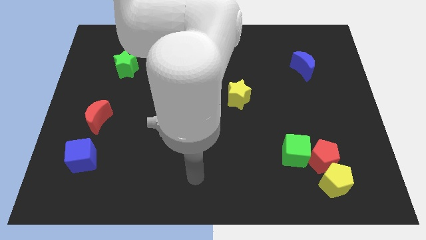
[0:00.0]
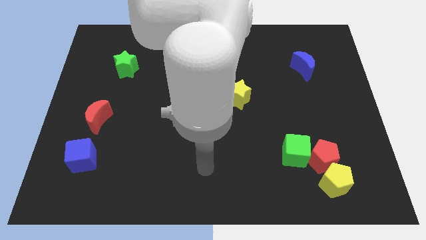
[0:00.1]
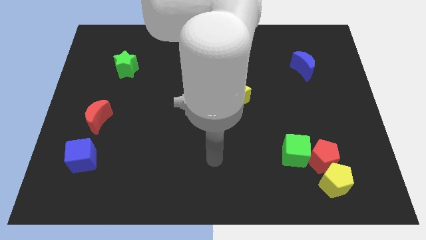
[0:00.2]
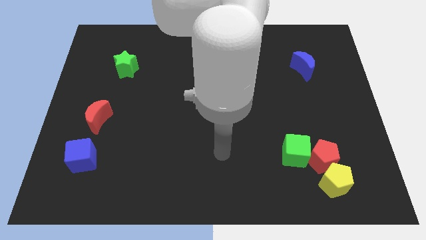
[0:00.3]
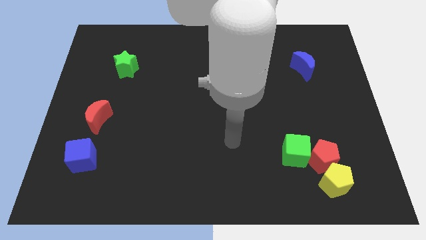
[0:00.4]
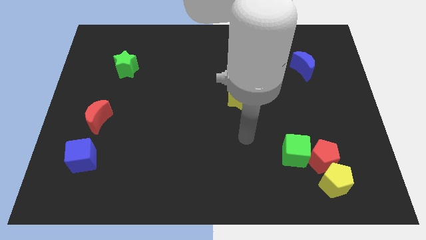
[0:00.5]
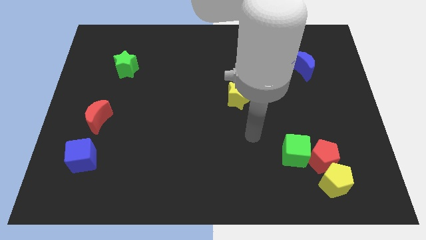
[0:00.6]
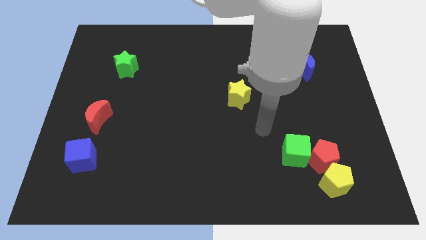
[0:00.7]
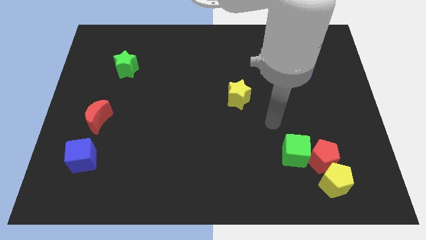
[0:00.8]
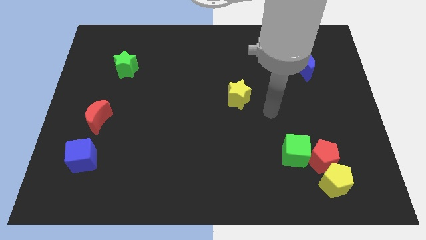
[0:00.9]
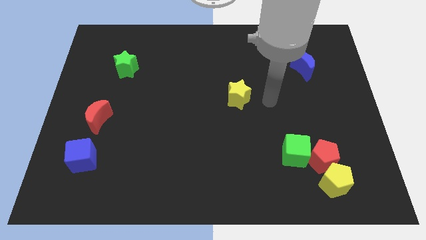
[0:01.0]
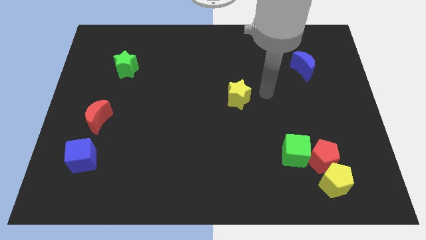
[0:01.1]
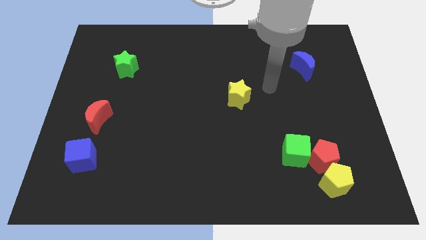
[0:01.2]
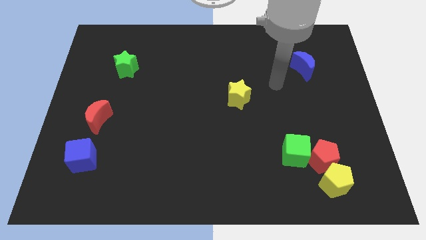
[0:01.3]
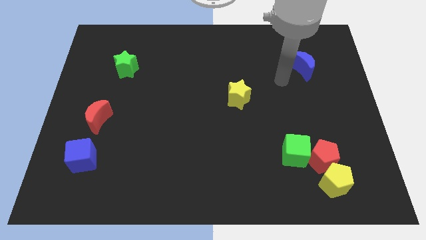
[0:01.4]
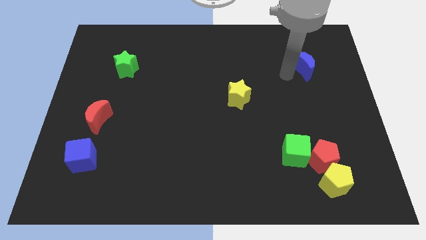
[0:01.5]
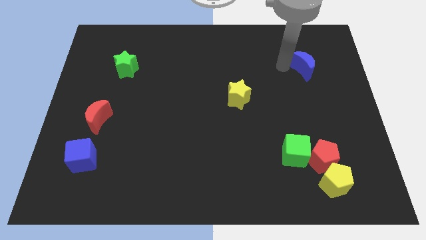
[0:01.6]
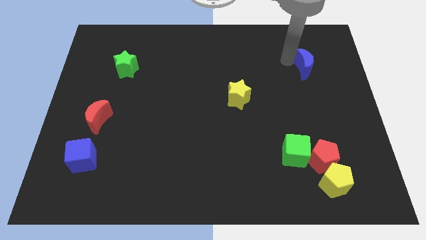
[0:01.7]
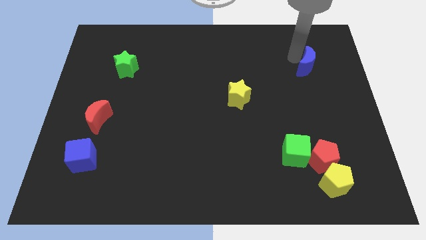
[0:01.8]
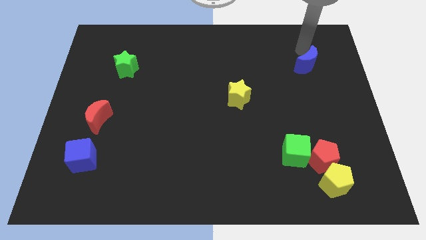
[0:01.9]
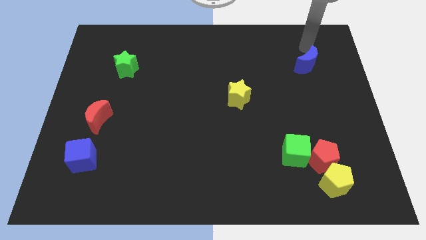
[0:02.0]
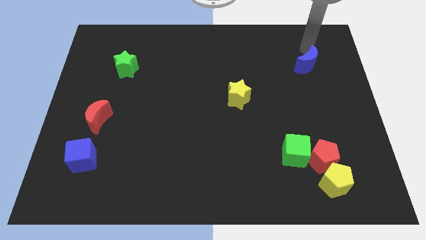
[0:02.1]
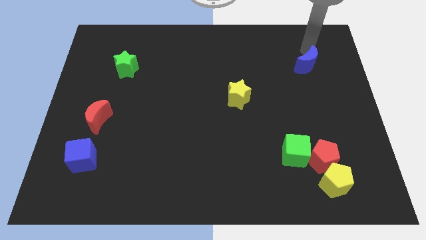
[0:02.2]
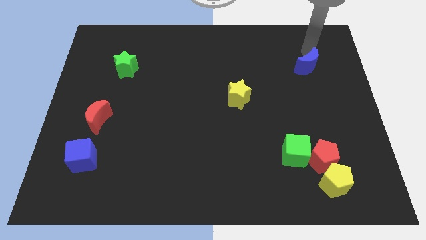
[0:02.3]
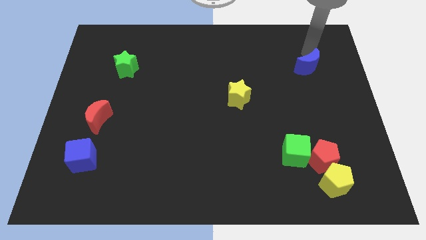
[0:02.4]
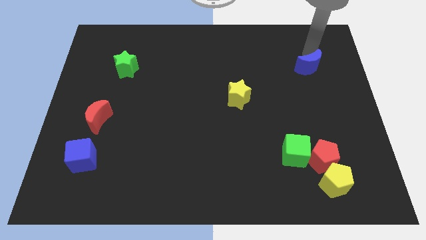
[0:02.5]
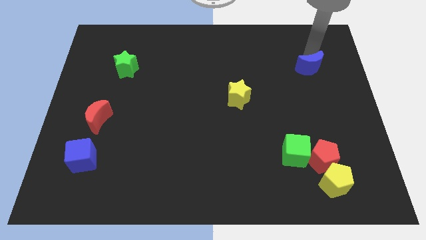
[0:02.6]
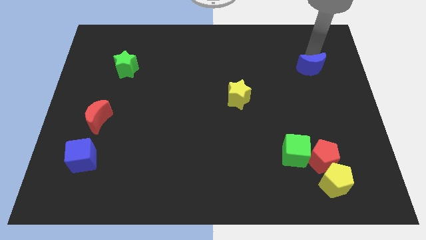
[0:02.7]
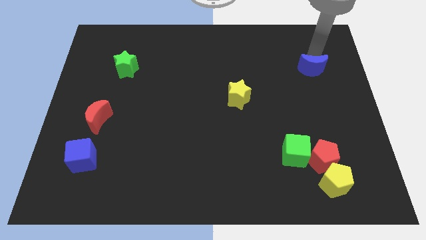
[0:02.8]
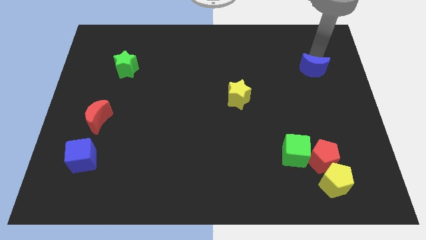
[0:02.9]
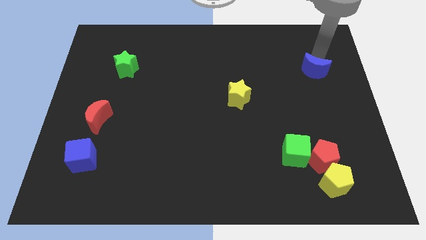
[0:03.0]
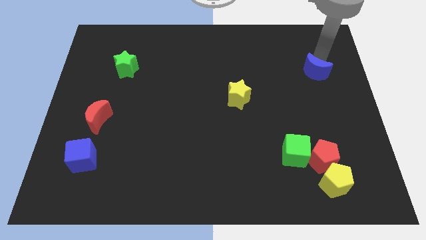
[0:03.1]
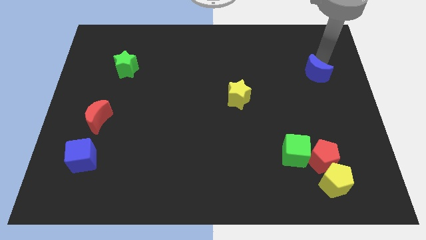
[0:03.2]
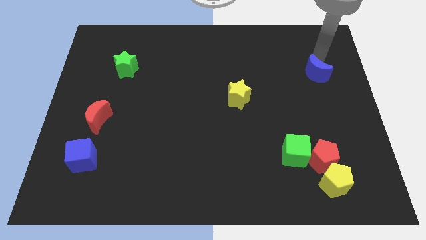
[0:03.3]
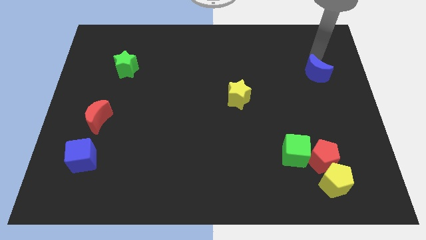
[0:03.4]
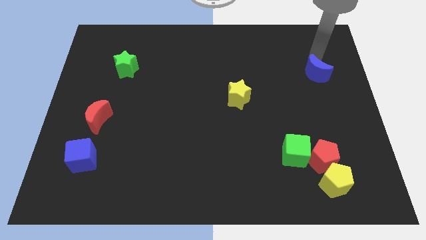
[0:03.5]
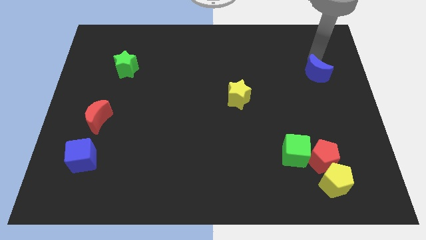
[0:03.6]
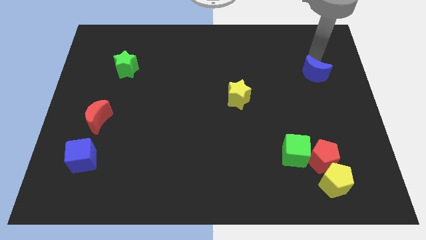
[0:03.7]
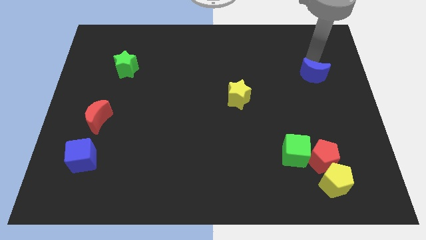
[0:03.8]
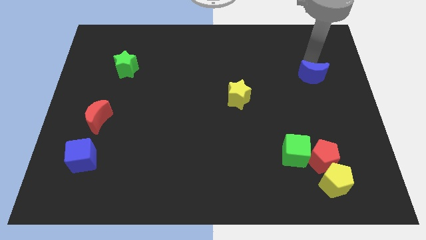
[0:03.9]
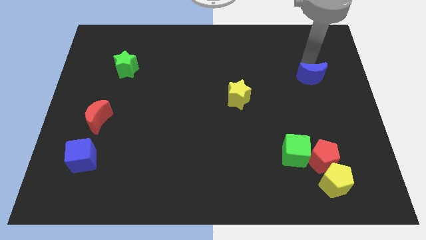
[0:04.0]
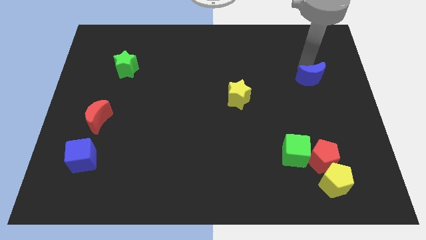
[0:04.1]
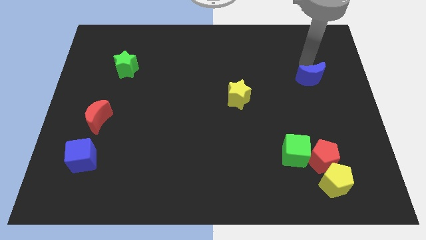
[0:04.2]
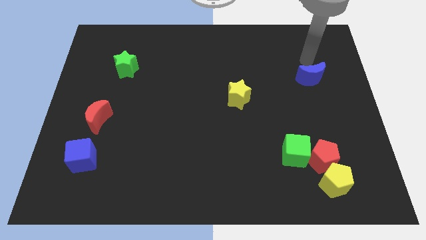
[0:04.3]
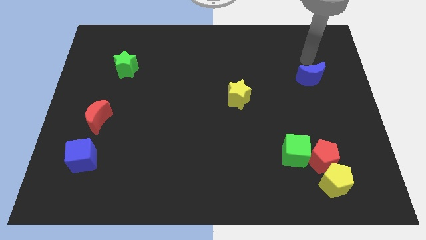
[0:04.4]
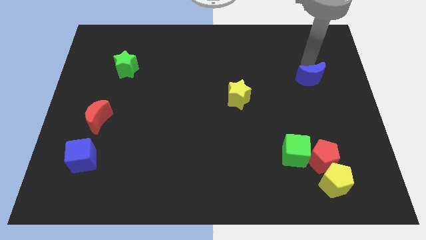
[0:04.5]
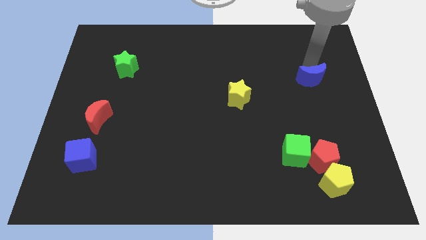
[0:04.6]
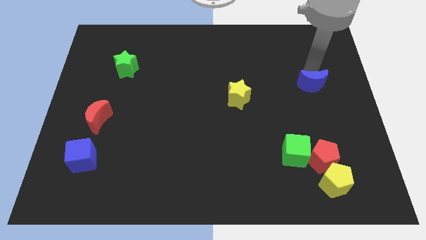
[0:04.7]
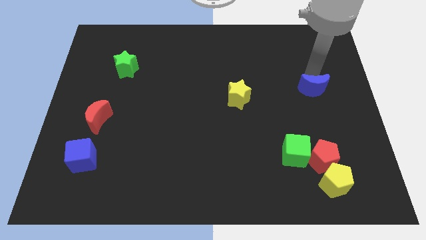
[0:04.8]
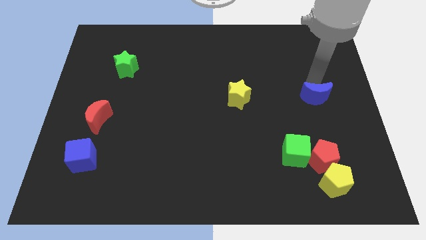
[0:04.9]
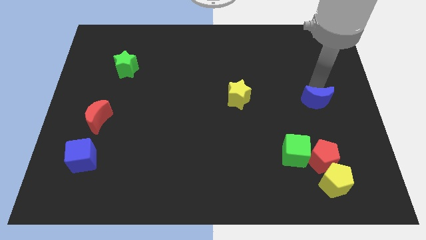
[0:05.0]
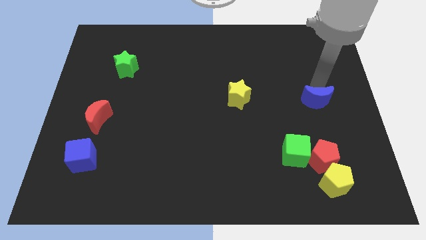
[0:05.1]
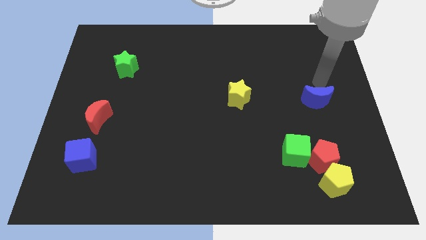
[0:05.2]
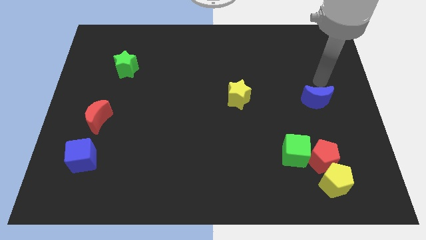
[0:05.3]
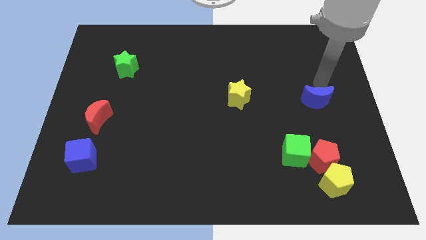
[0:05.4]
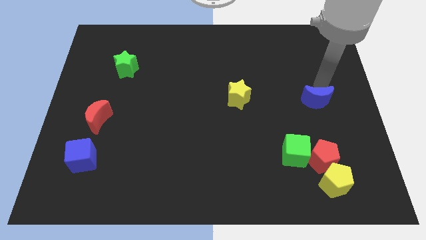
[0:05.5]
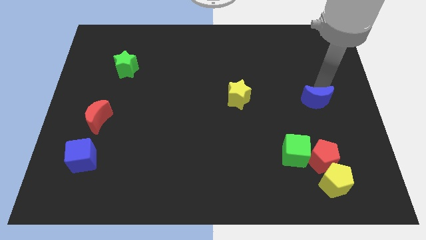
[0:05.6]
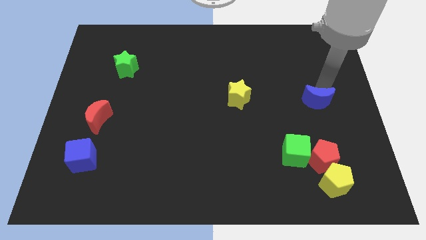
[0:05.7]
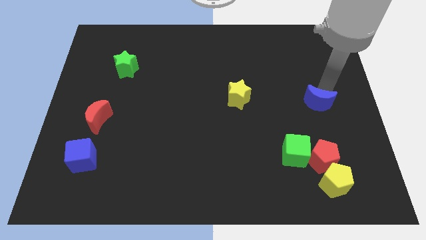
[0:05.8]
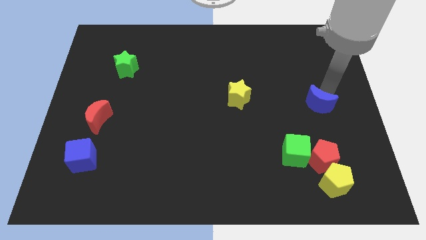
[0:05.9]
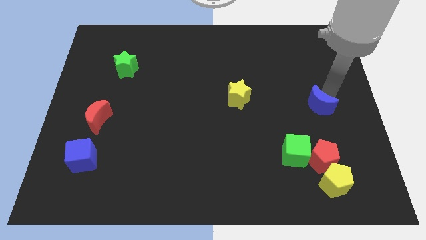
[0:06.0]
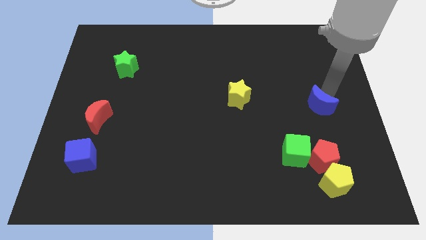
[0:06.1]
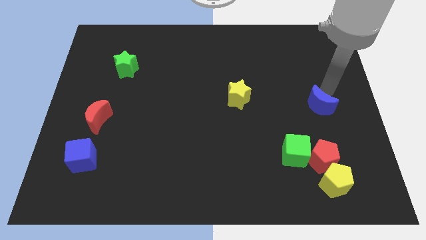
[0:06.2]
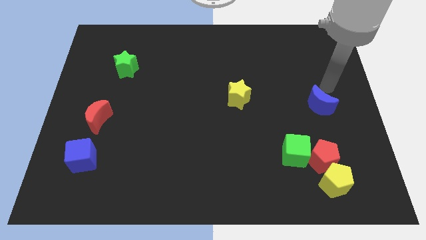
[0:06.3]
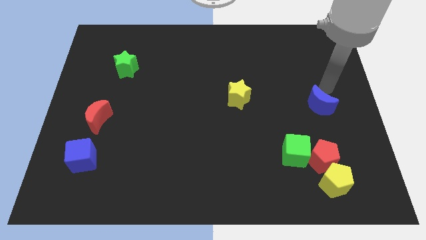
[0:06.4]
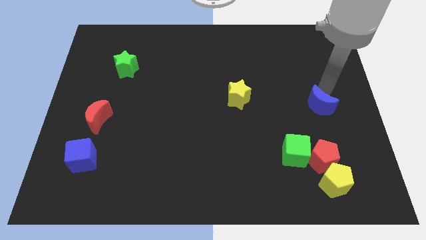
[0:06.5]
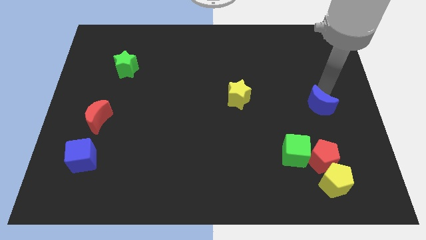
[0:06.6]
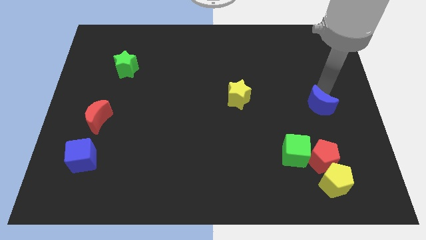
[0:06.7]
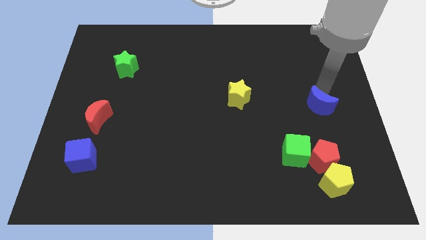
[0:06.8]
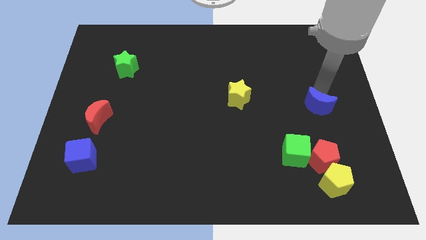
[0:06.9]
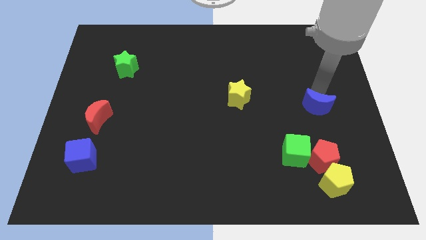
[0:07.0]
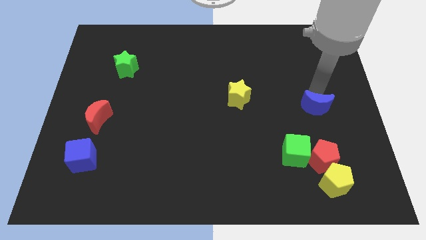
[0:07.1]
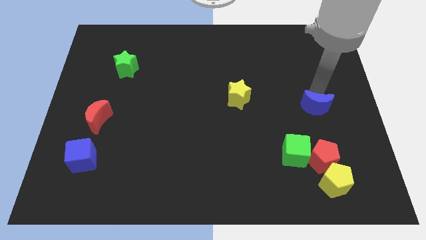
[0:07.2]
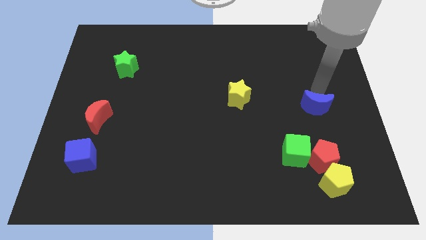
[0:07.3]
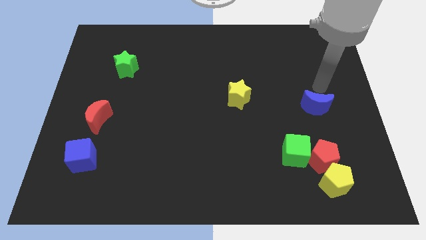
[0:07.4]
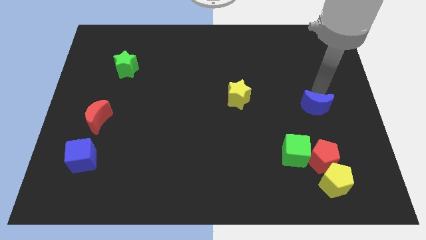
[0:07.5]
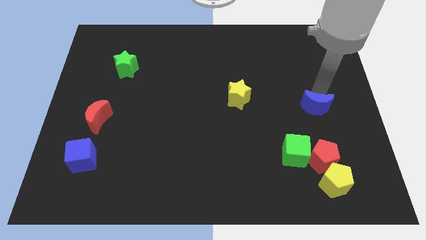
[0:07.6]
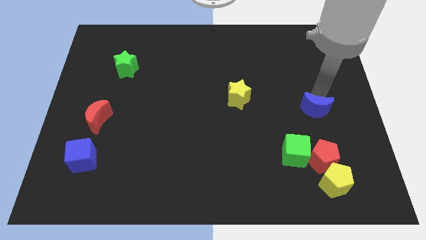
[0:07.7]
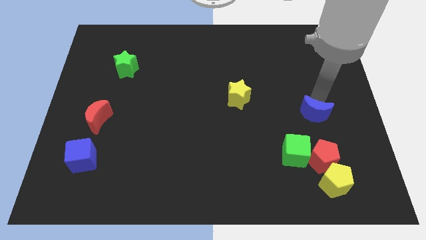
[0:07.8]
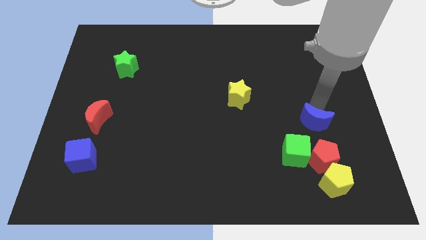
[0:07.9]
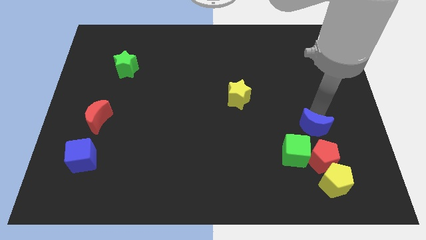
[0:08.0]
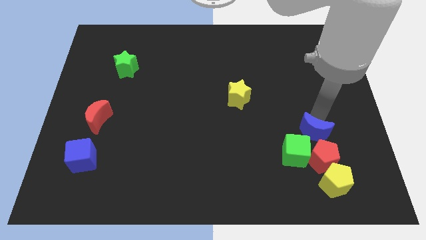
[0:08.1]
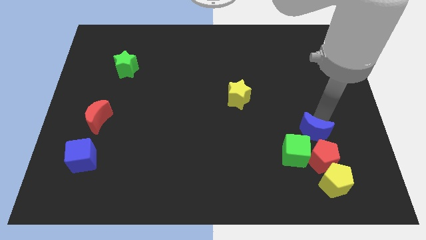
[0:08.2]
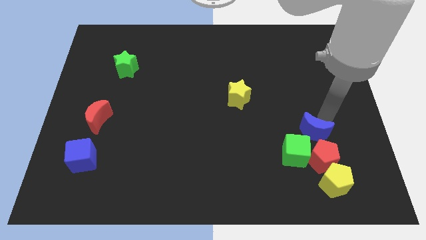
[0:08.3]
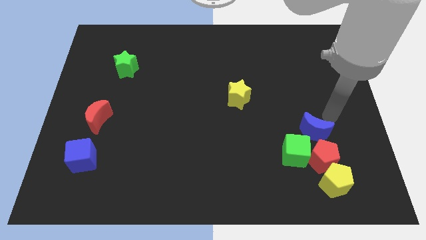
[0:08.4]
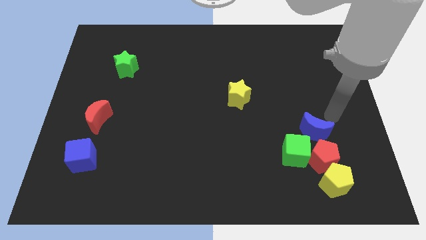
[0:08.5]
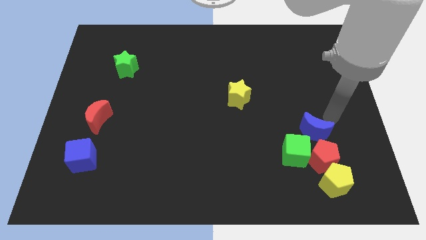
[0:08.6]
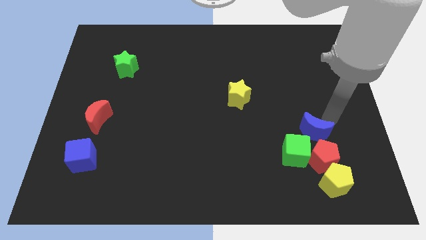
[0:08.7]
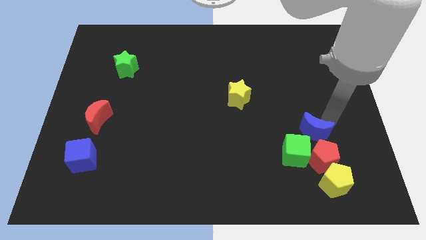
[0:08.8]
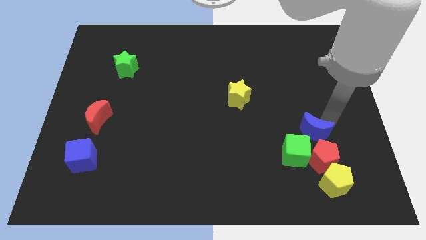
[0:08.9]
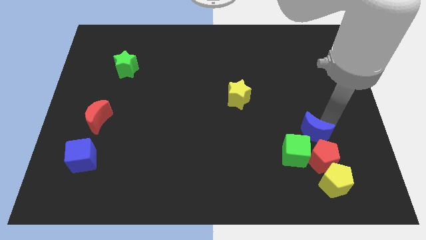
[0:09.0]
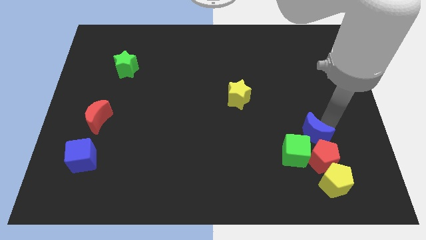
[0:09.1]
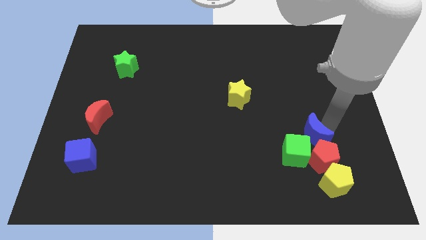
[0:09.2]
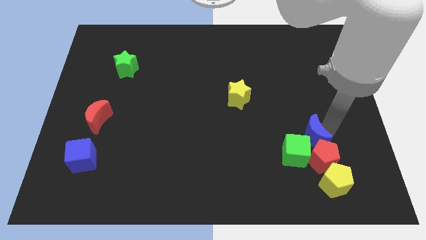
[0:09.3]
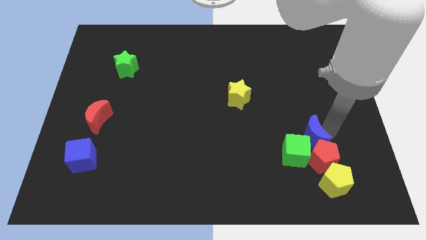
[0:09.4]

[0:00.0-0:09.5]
move the blue moon towards the green cube
